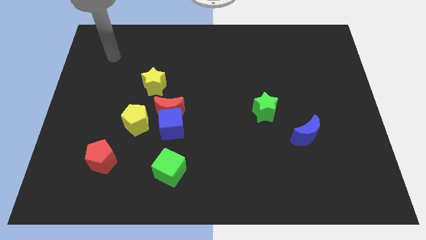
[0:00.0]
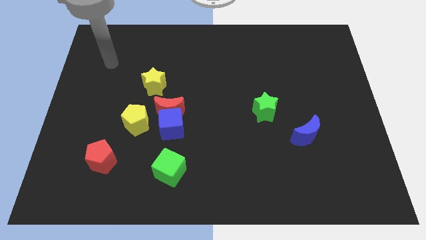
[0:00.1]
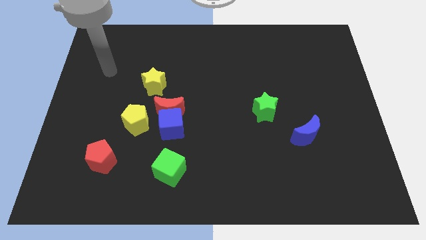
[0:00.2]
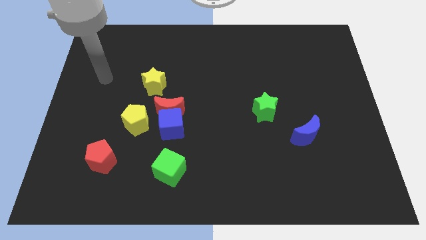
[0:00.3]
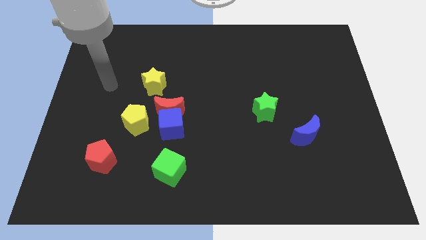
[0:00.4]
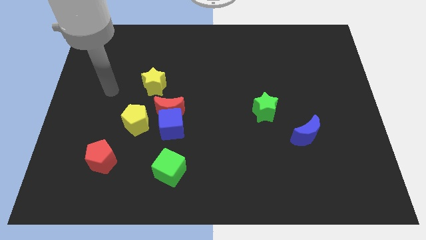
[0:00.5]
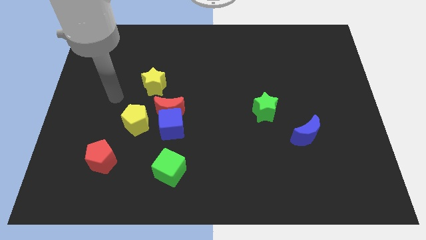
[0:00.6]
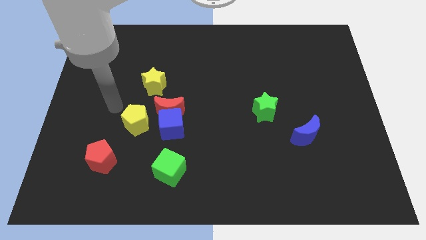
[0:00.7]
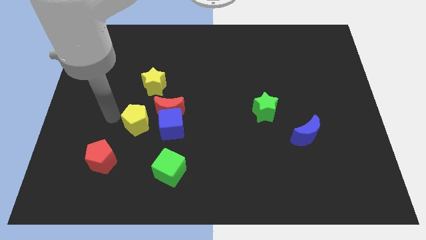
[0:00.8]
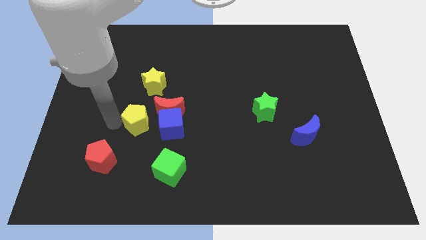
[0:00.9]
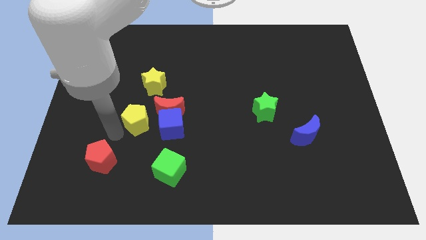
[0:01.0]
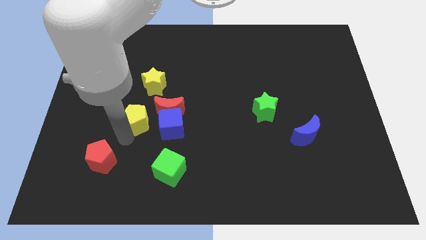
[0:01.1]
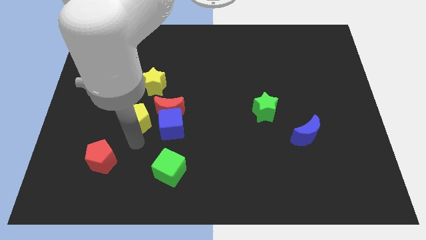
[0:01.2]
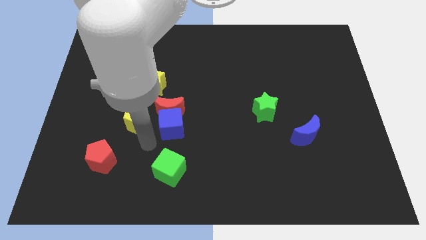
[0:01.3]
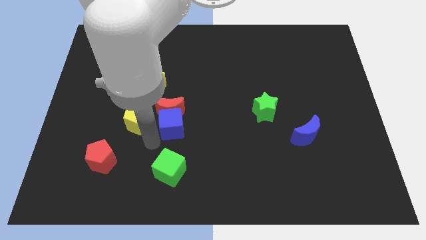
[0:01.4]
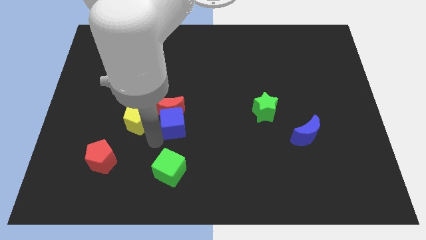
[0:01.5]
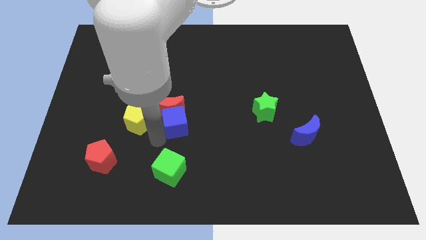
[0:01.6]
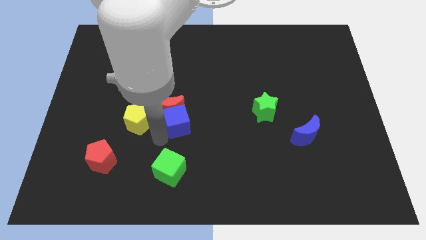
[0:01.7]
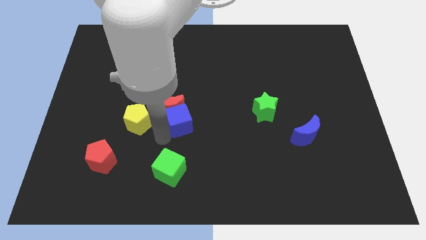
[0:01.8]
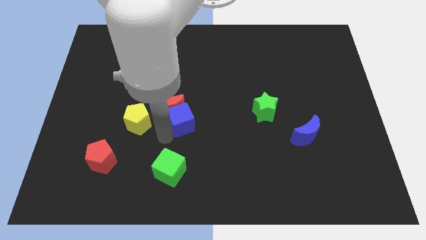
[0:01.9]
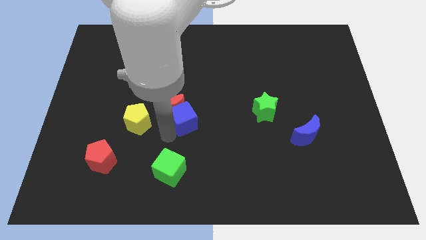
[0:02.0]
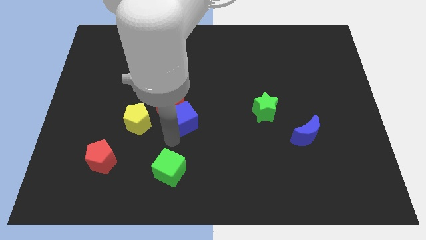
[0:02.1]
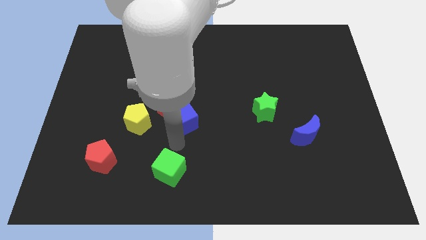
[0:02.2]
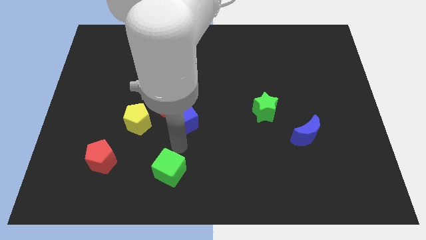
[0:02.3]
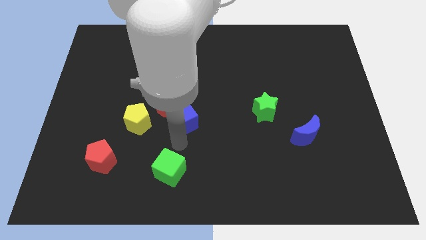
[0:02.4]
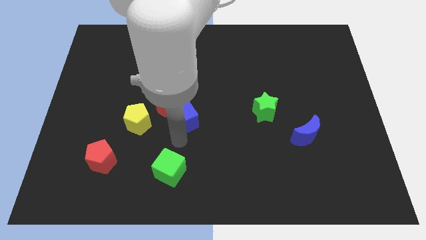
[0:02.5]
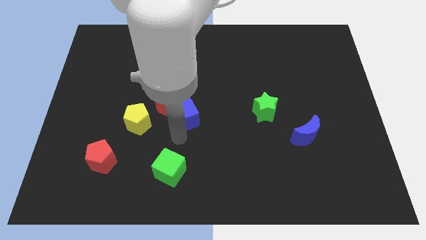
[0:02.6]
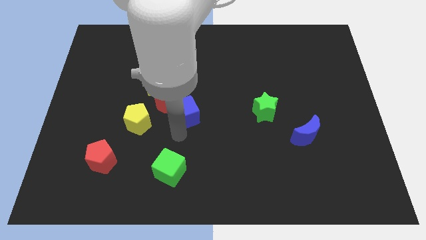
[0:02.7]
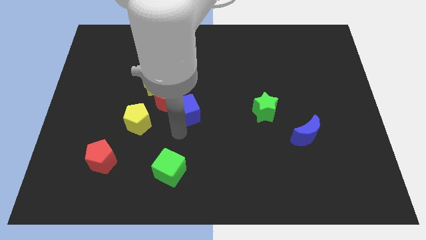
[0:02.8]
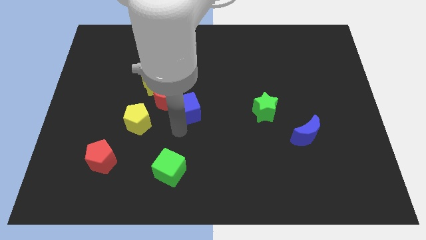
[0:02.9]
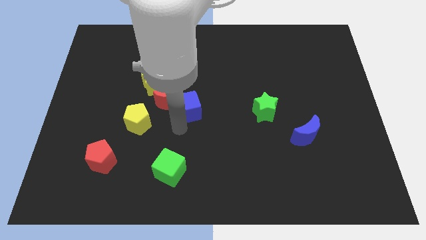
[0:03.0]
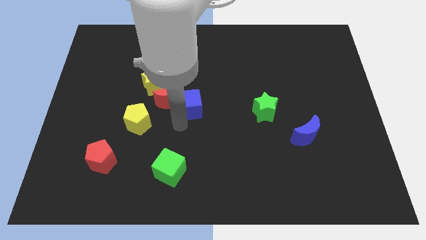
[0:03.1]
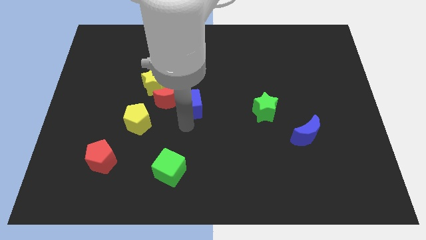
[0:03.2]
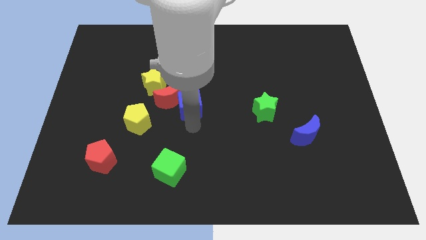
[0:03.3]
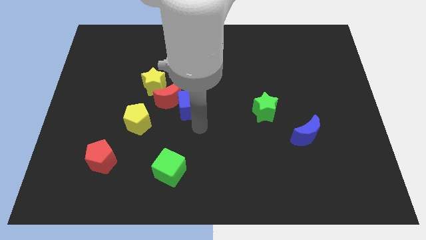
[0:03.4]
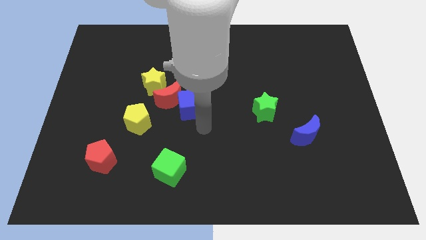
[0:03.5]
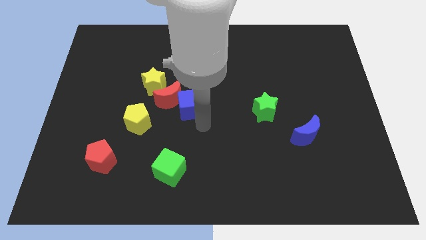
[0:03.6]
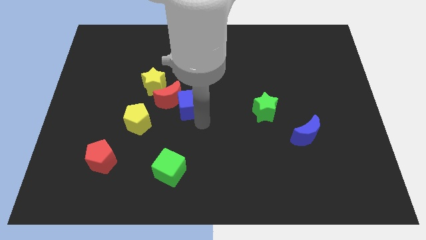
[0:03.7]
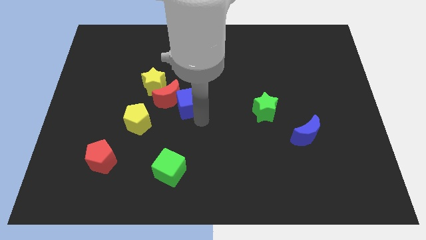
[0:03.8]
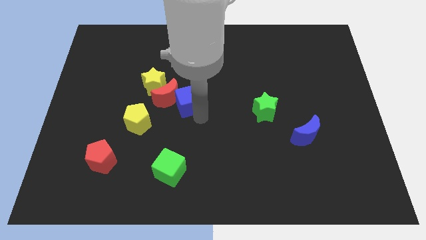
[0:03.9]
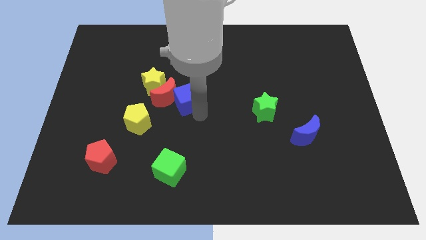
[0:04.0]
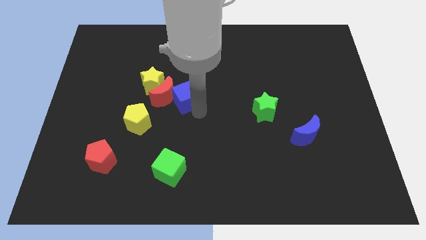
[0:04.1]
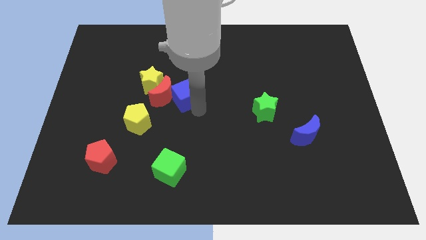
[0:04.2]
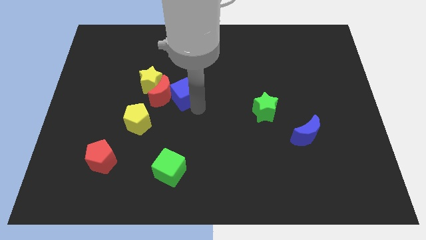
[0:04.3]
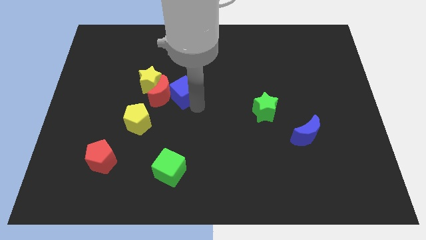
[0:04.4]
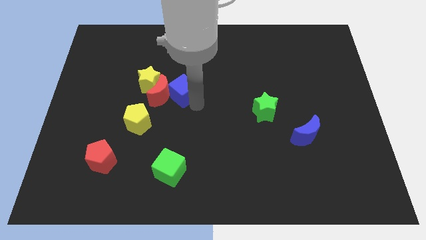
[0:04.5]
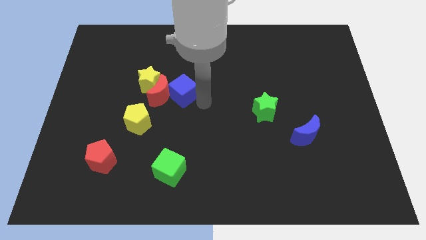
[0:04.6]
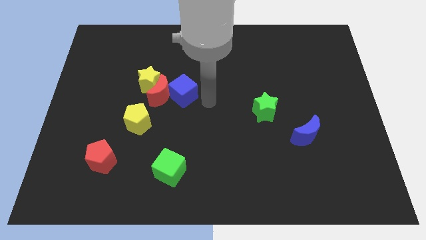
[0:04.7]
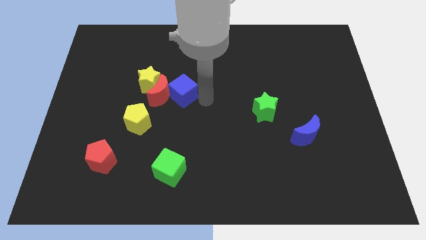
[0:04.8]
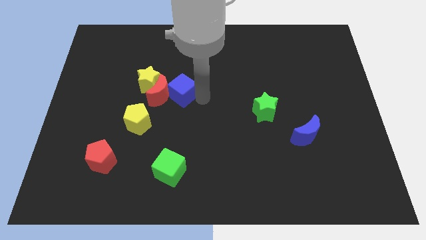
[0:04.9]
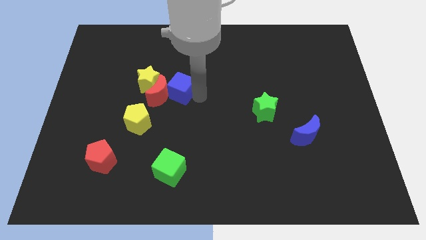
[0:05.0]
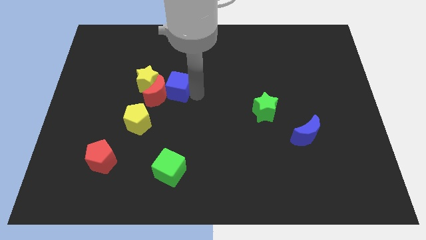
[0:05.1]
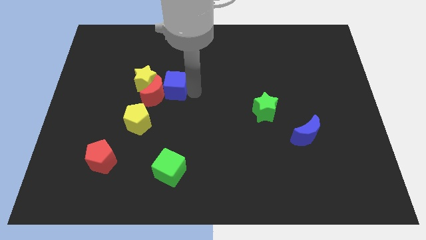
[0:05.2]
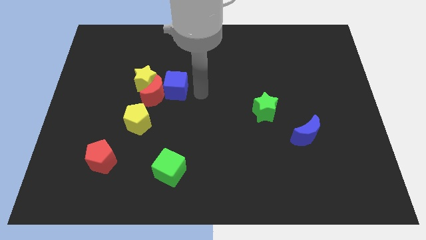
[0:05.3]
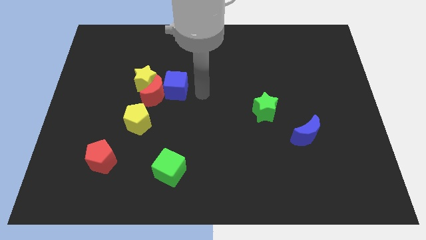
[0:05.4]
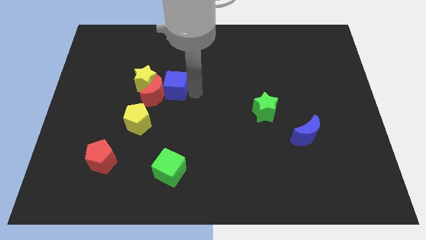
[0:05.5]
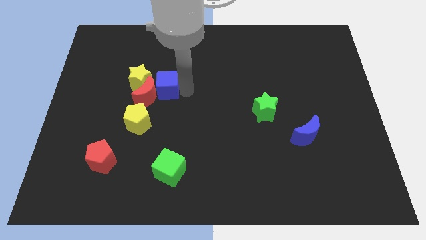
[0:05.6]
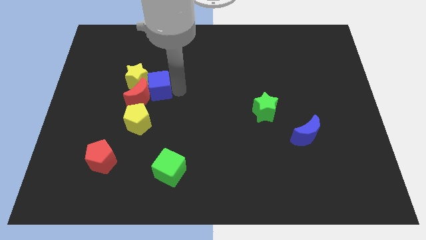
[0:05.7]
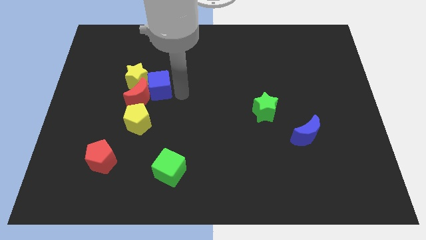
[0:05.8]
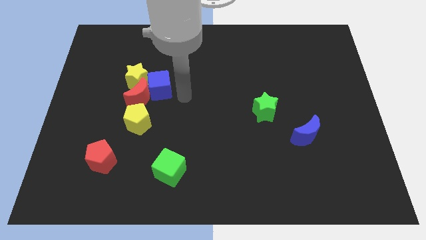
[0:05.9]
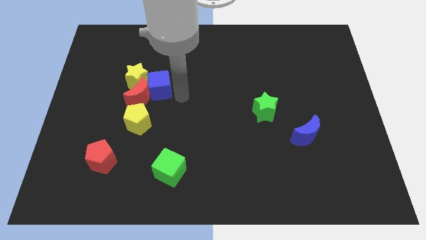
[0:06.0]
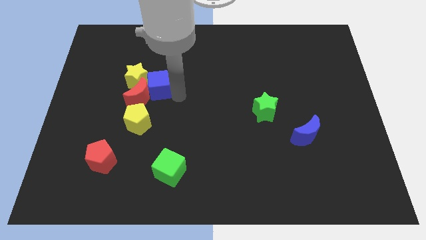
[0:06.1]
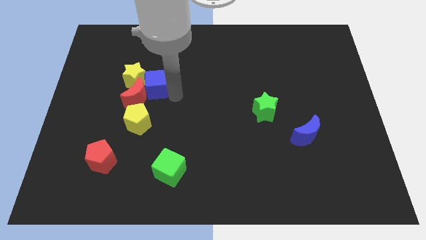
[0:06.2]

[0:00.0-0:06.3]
move the blue cube next to the yellow star
